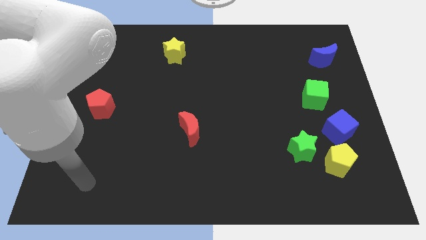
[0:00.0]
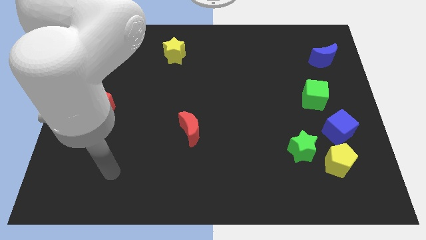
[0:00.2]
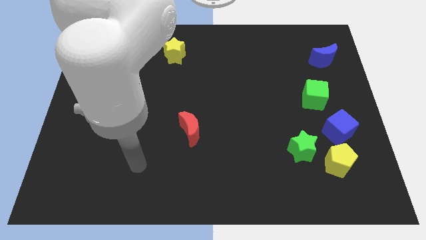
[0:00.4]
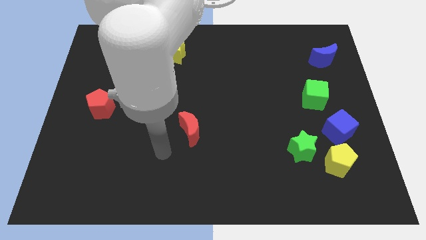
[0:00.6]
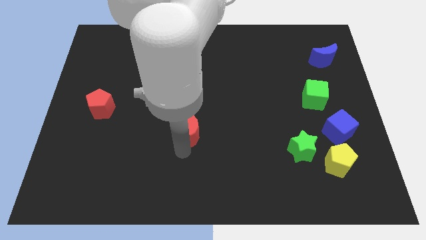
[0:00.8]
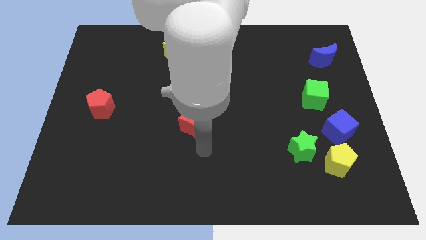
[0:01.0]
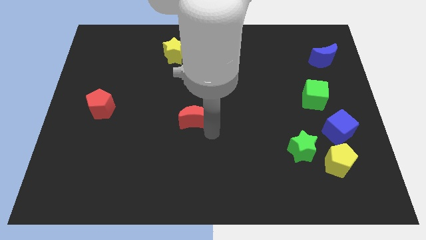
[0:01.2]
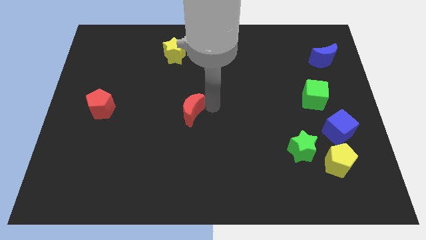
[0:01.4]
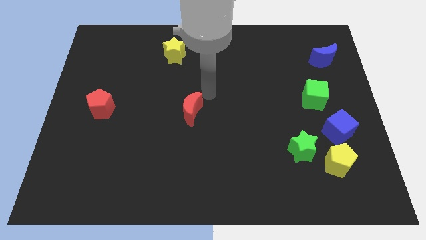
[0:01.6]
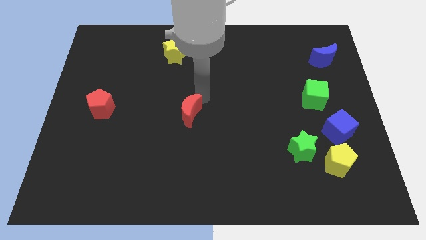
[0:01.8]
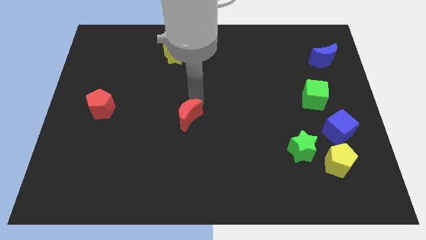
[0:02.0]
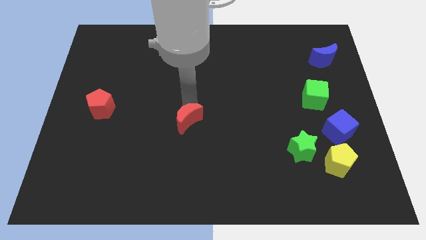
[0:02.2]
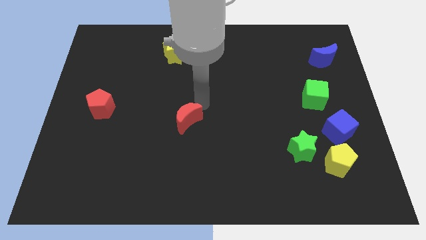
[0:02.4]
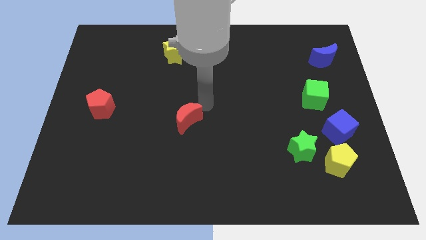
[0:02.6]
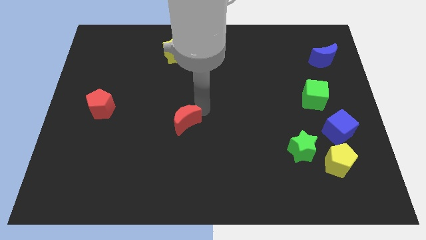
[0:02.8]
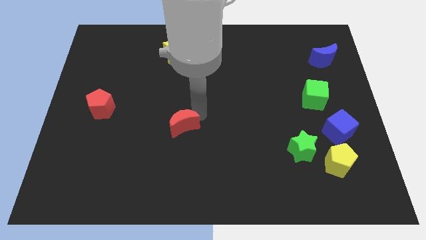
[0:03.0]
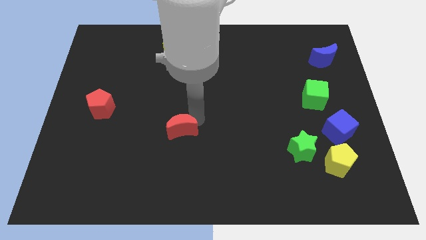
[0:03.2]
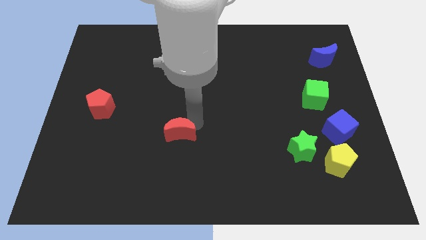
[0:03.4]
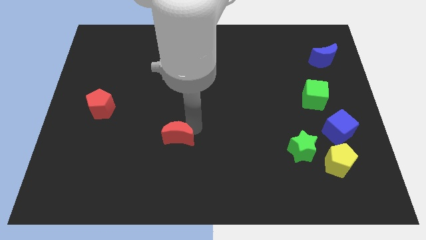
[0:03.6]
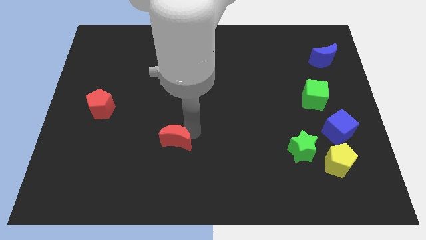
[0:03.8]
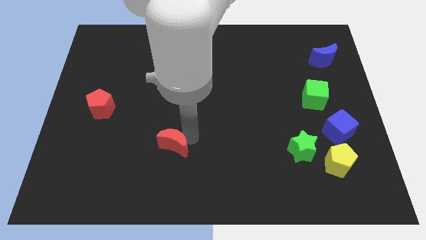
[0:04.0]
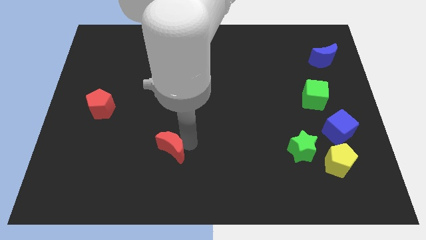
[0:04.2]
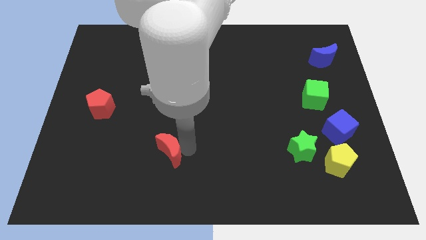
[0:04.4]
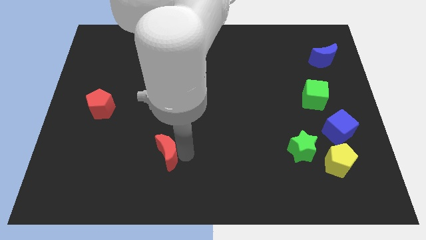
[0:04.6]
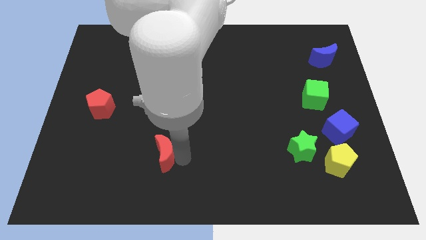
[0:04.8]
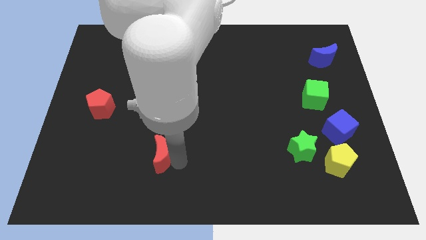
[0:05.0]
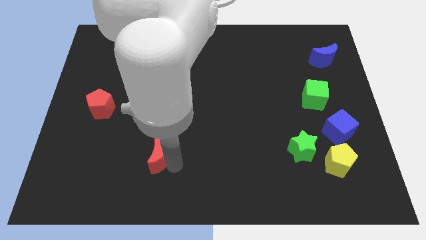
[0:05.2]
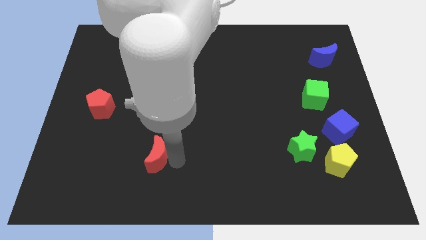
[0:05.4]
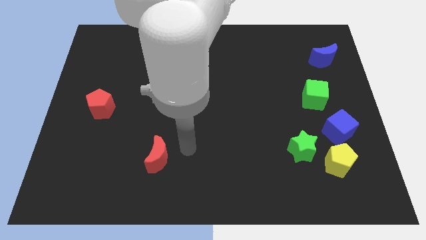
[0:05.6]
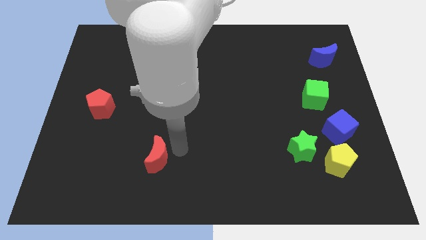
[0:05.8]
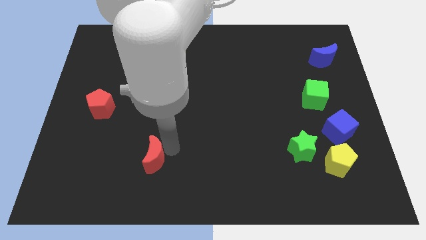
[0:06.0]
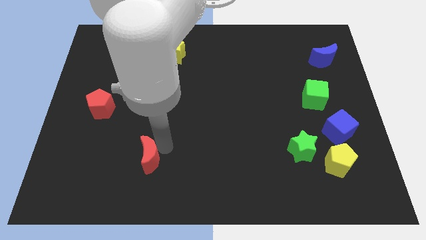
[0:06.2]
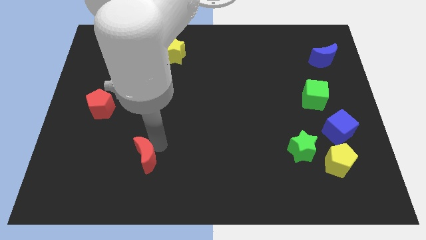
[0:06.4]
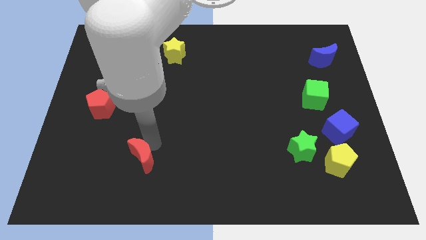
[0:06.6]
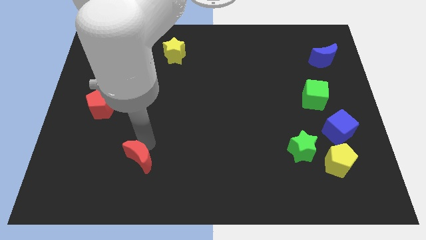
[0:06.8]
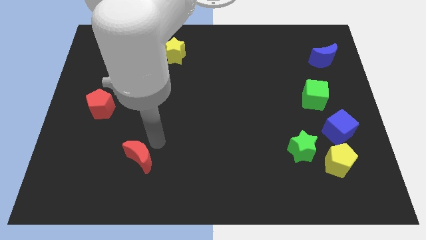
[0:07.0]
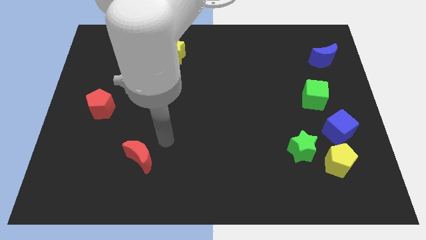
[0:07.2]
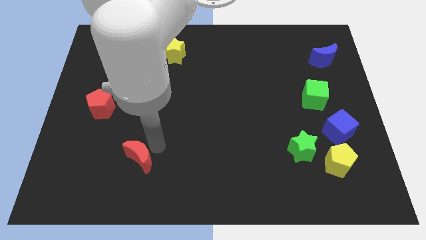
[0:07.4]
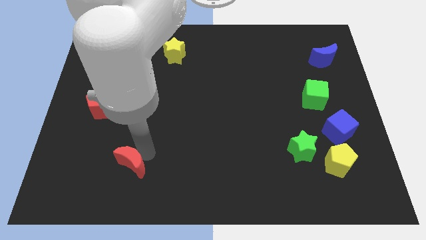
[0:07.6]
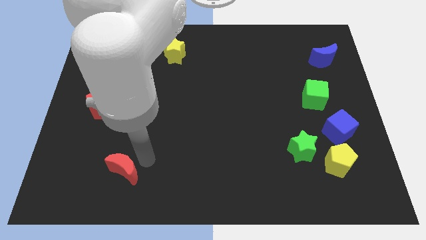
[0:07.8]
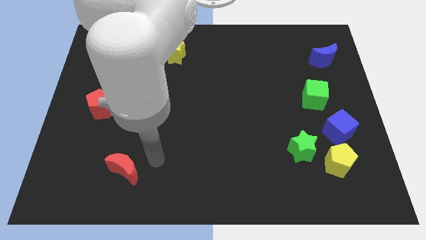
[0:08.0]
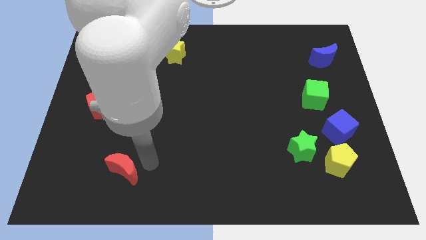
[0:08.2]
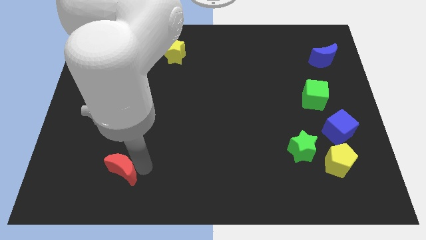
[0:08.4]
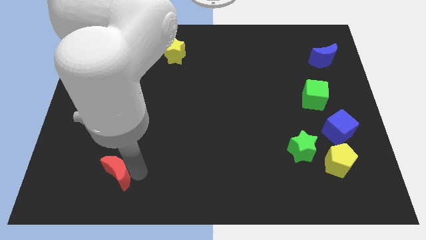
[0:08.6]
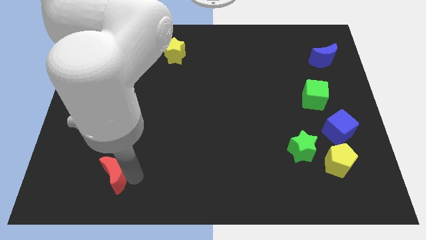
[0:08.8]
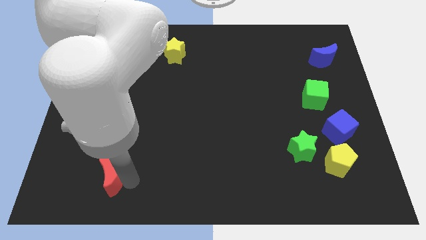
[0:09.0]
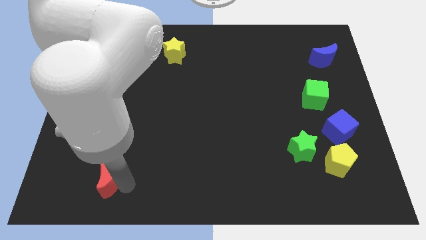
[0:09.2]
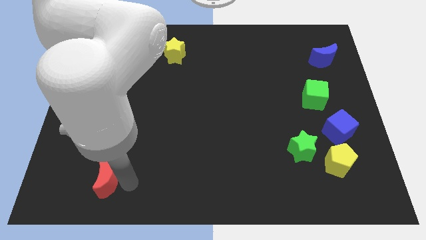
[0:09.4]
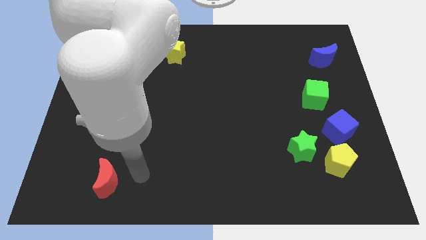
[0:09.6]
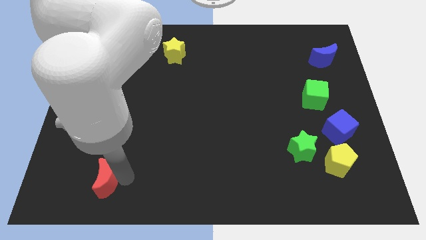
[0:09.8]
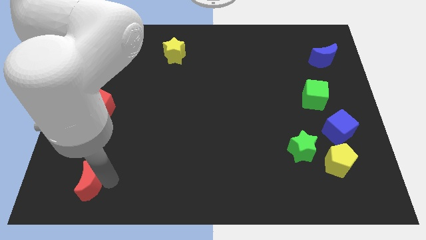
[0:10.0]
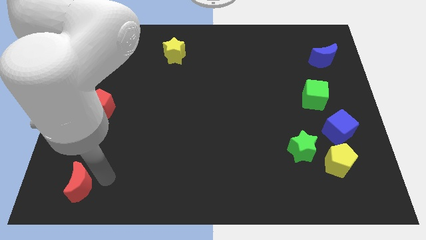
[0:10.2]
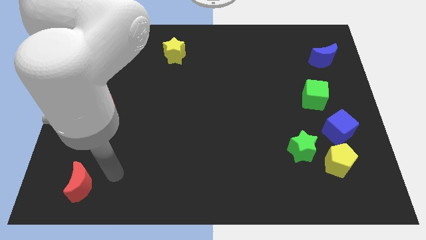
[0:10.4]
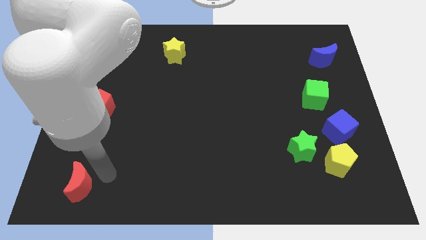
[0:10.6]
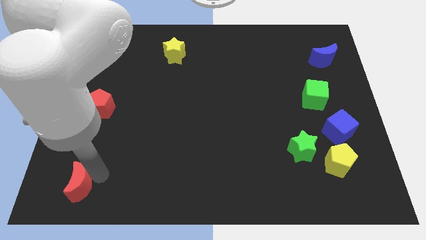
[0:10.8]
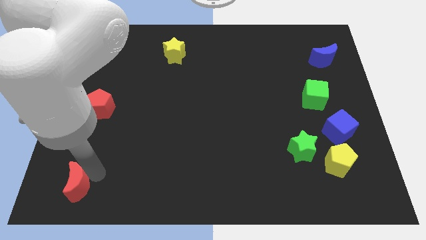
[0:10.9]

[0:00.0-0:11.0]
move the red moon to the bottom left of the board
